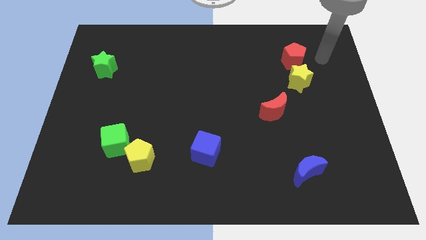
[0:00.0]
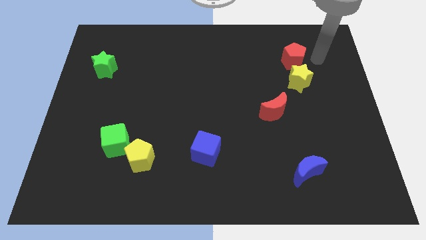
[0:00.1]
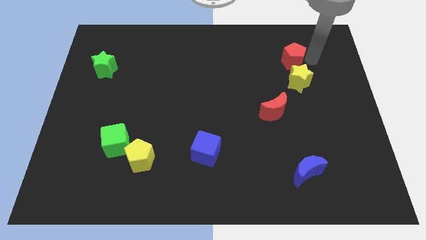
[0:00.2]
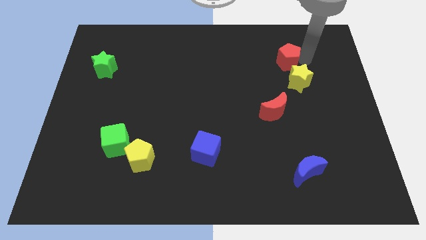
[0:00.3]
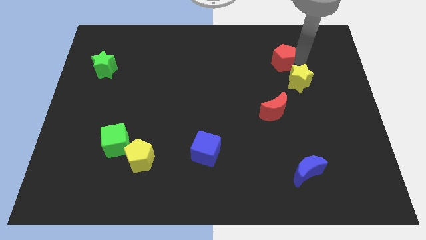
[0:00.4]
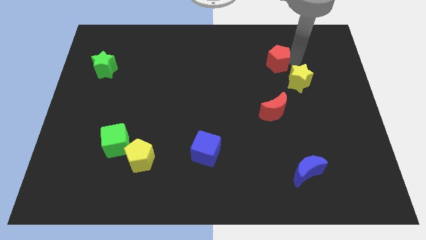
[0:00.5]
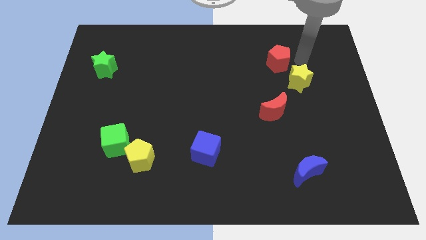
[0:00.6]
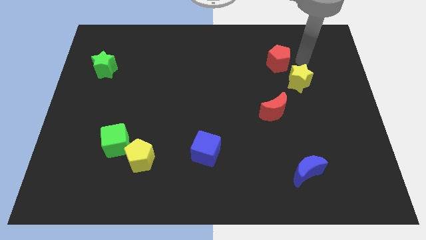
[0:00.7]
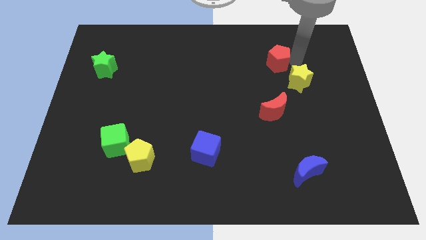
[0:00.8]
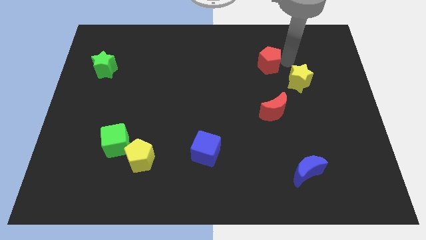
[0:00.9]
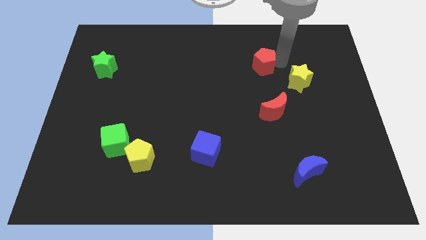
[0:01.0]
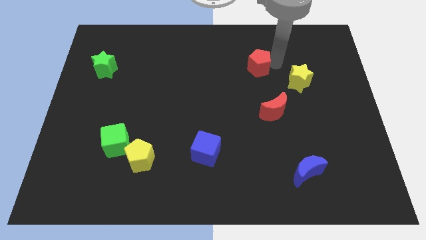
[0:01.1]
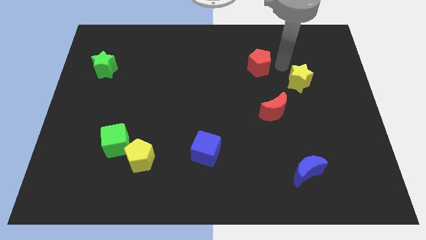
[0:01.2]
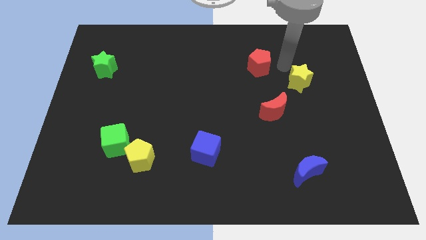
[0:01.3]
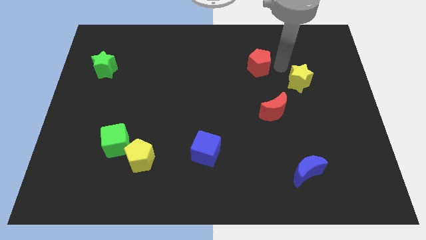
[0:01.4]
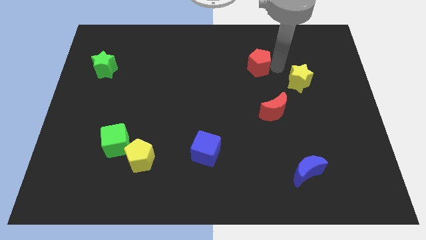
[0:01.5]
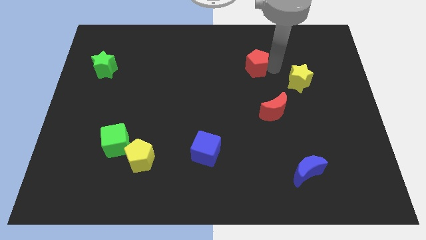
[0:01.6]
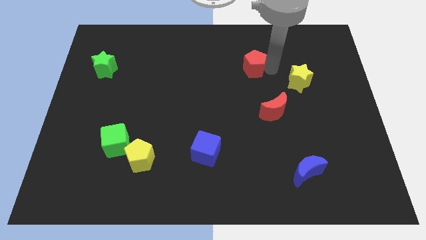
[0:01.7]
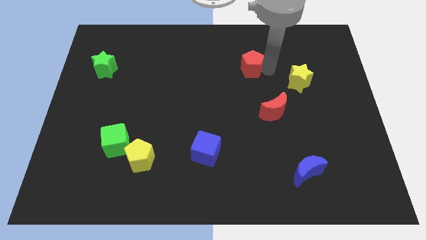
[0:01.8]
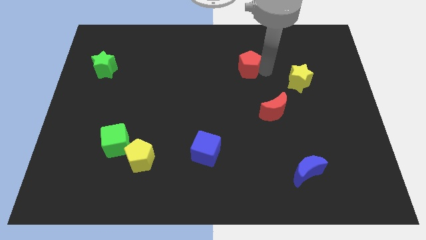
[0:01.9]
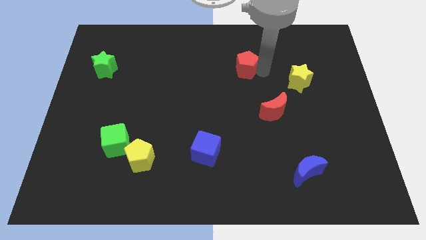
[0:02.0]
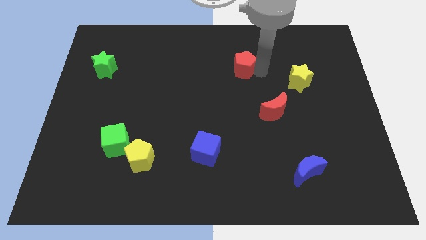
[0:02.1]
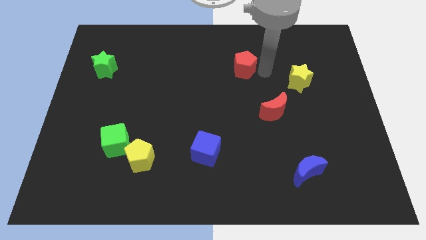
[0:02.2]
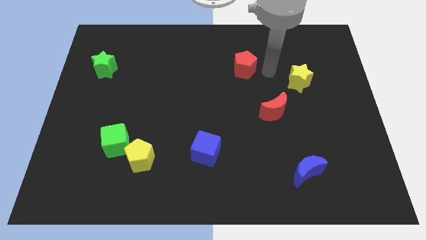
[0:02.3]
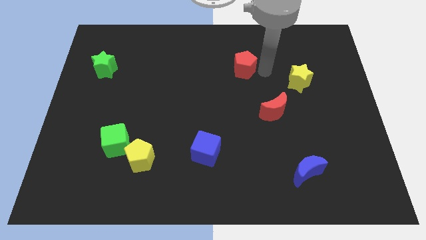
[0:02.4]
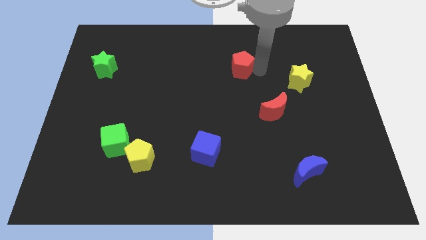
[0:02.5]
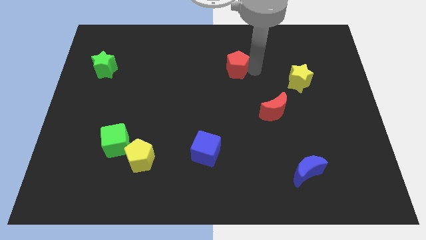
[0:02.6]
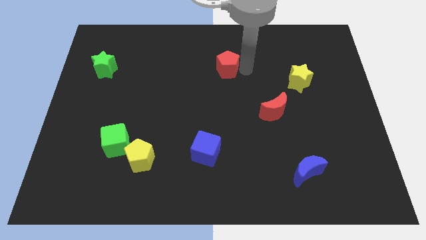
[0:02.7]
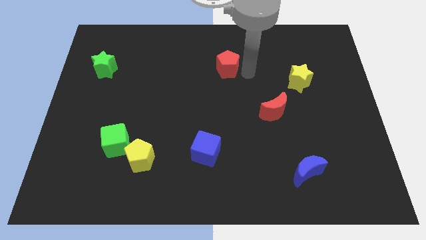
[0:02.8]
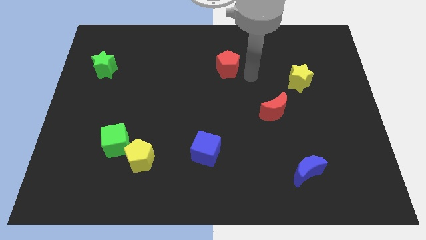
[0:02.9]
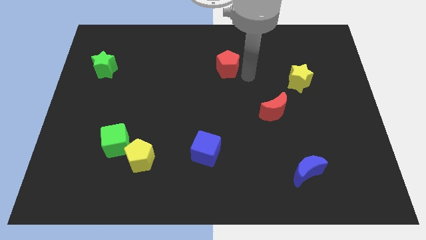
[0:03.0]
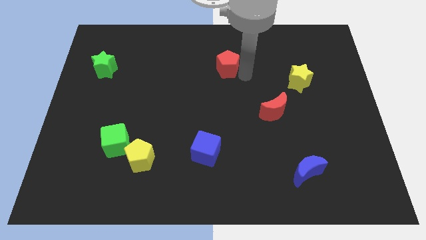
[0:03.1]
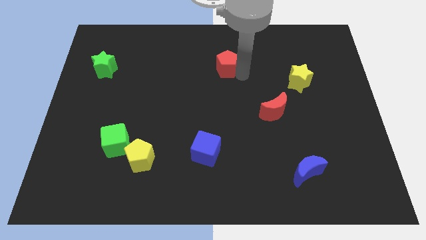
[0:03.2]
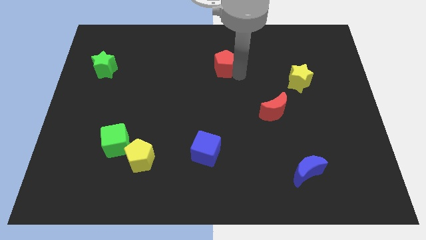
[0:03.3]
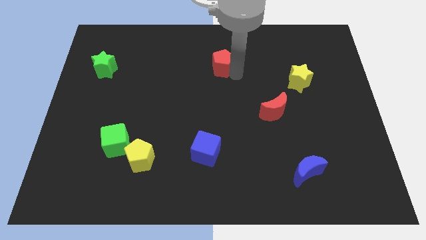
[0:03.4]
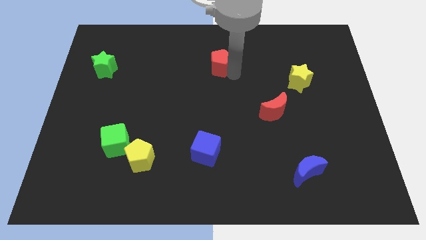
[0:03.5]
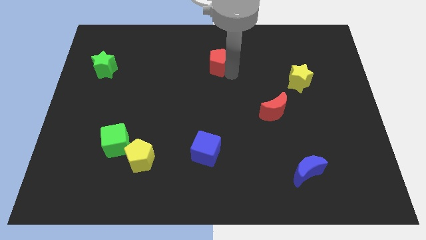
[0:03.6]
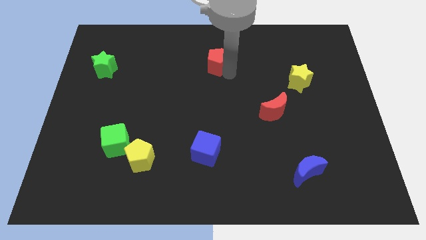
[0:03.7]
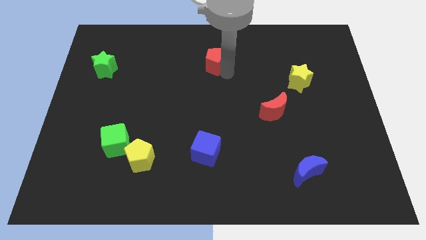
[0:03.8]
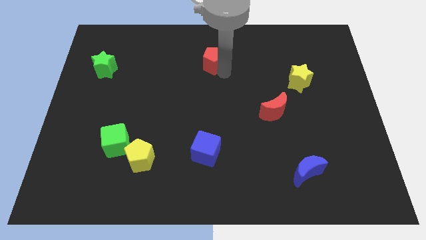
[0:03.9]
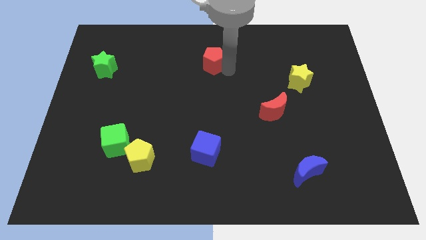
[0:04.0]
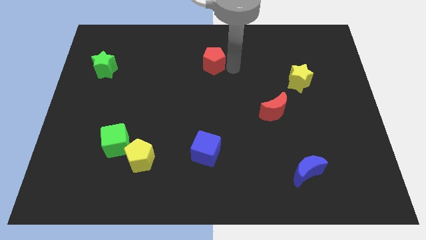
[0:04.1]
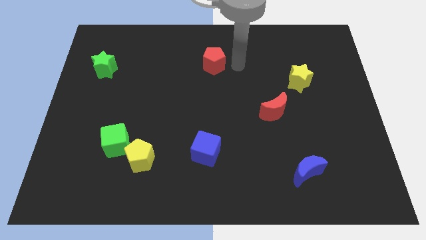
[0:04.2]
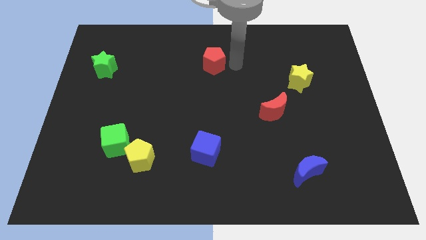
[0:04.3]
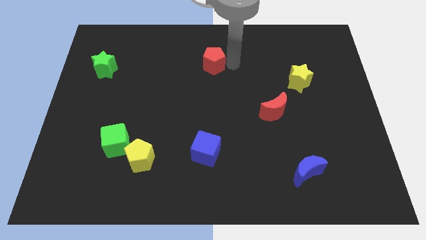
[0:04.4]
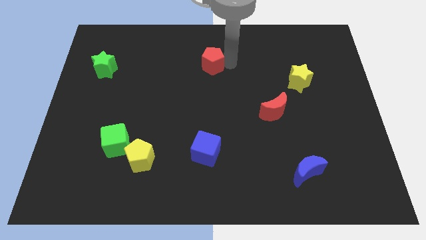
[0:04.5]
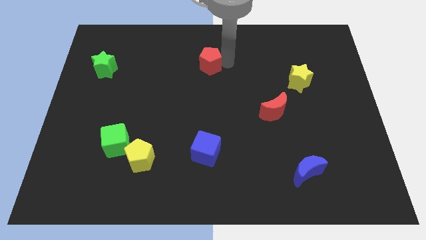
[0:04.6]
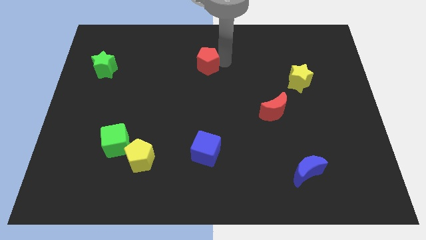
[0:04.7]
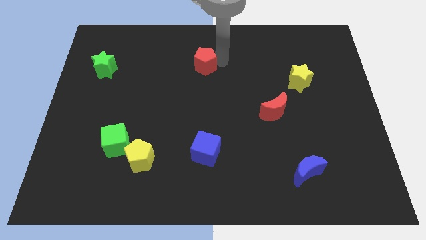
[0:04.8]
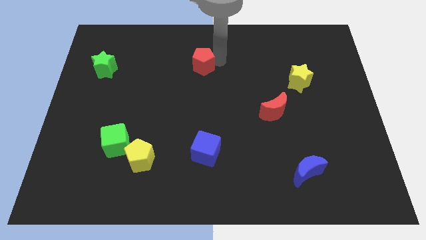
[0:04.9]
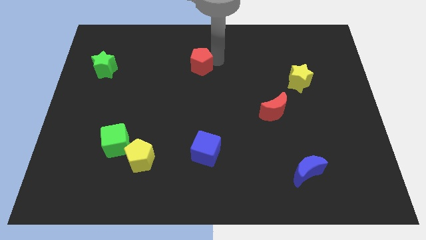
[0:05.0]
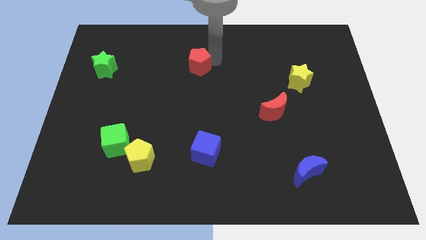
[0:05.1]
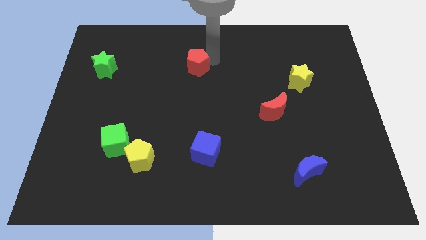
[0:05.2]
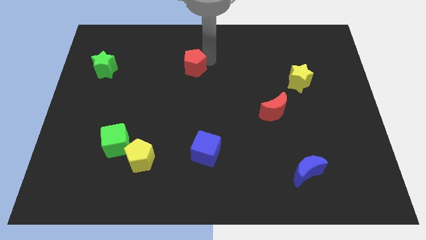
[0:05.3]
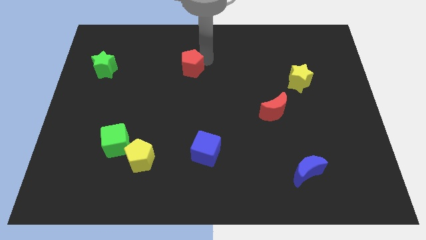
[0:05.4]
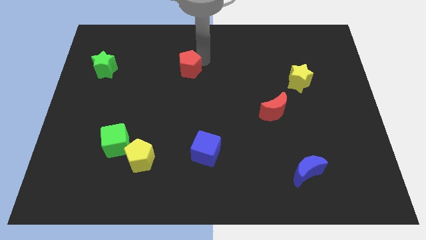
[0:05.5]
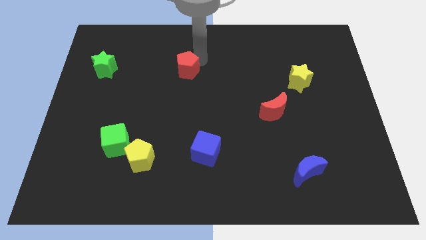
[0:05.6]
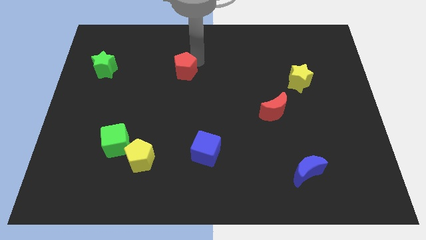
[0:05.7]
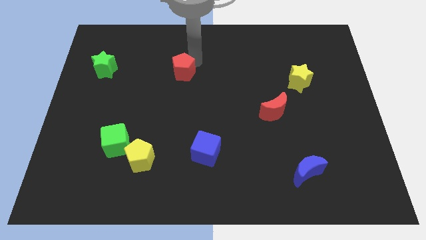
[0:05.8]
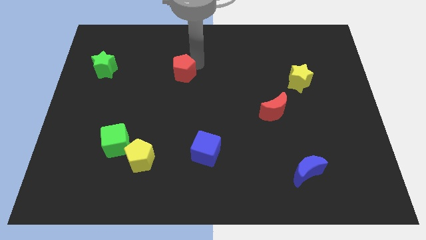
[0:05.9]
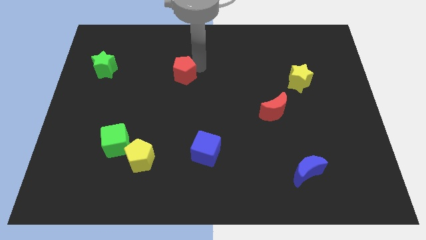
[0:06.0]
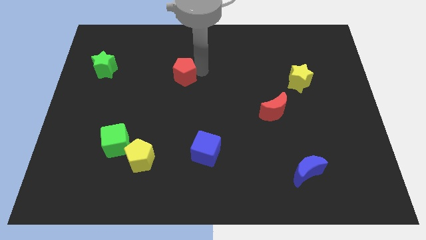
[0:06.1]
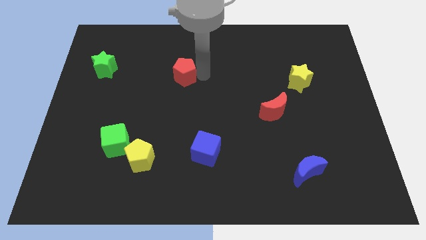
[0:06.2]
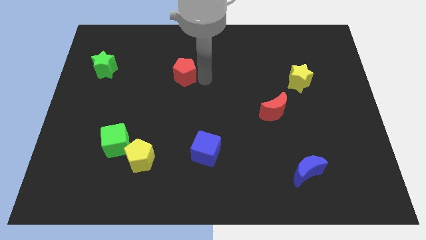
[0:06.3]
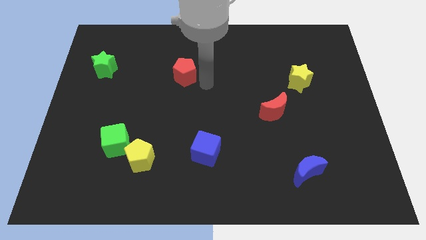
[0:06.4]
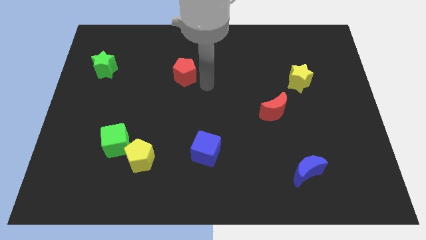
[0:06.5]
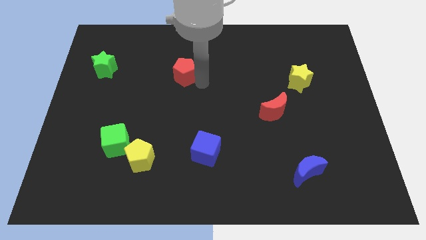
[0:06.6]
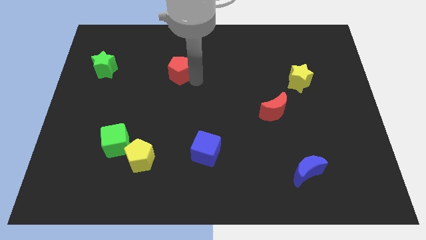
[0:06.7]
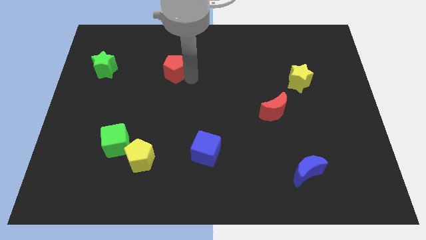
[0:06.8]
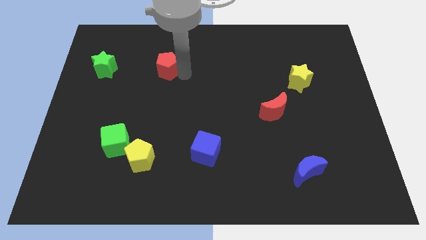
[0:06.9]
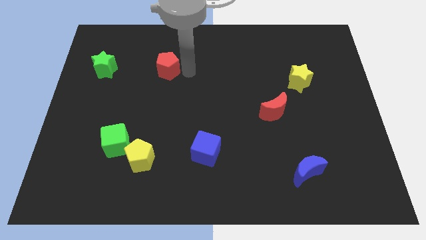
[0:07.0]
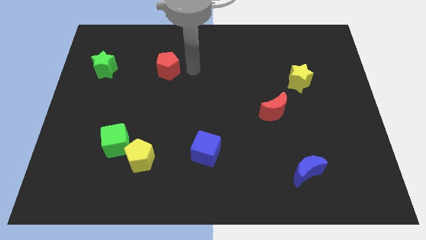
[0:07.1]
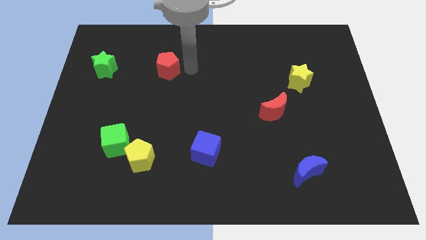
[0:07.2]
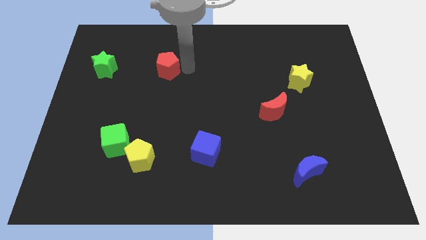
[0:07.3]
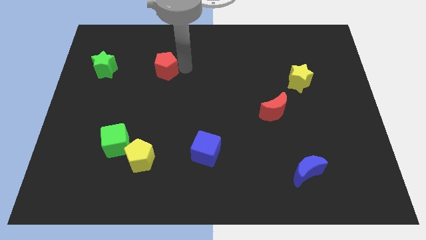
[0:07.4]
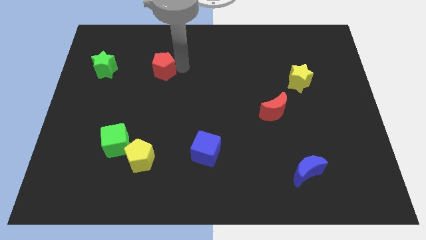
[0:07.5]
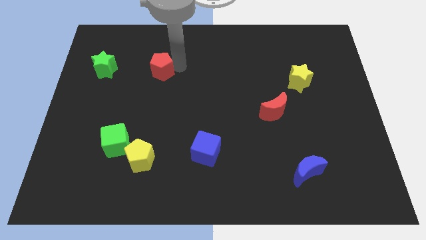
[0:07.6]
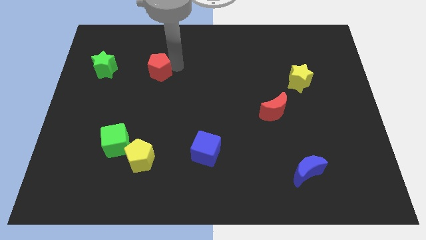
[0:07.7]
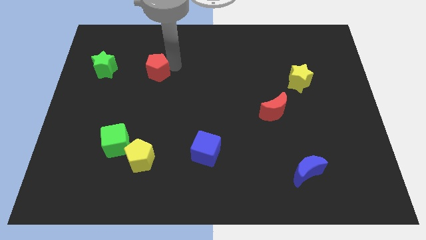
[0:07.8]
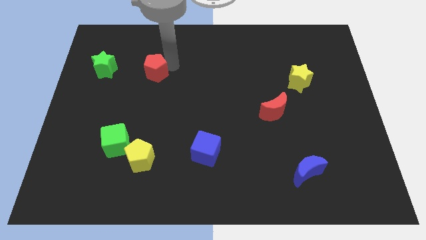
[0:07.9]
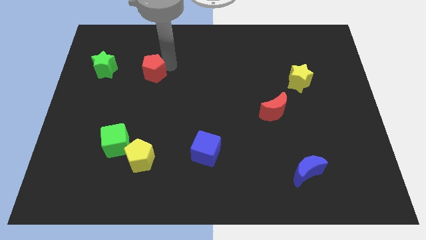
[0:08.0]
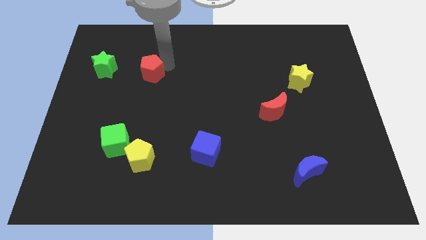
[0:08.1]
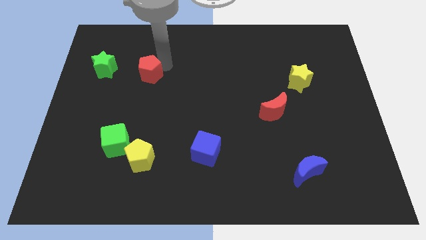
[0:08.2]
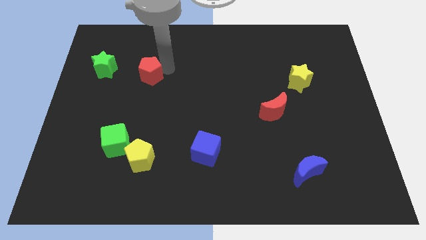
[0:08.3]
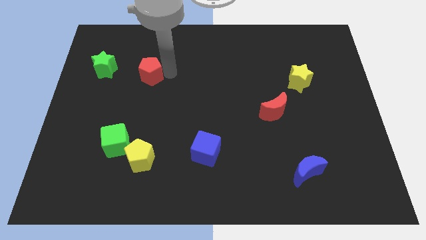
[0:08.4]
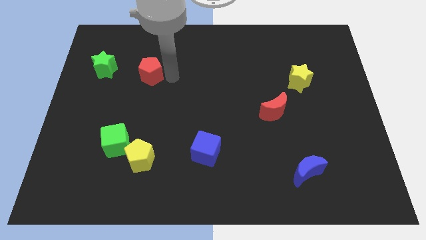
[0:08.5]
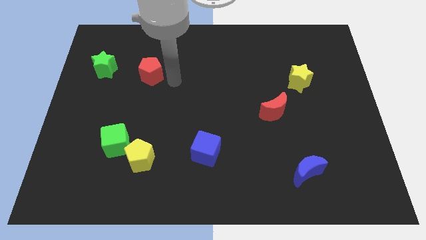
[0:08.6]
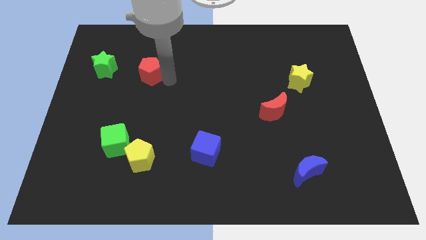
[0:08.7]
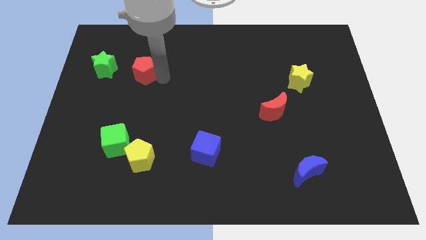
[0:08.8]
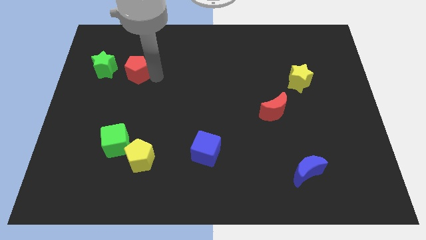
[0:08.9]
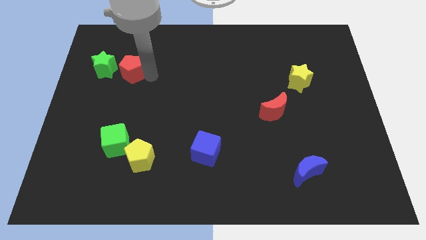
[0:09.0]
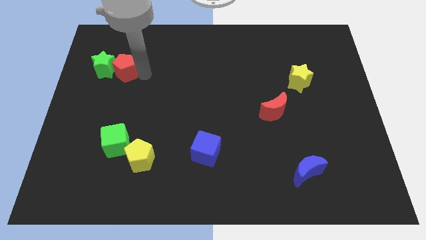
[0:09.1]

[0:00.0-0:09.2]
push the red pentagon towards the green star
